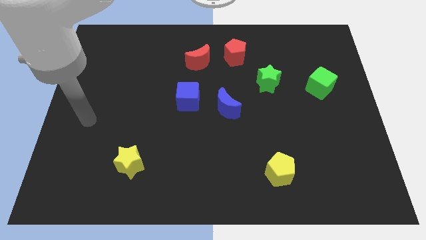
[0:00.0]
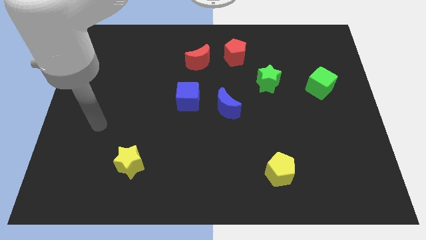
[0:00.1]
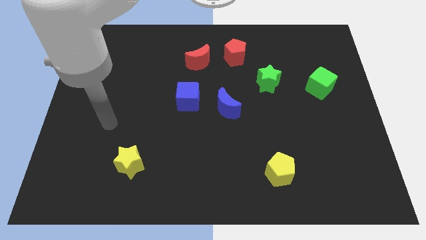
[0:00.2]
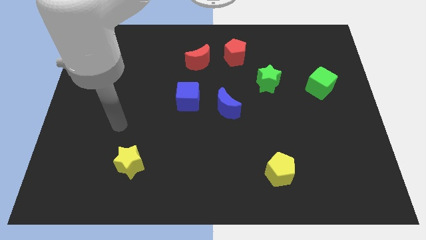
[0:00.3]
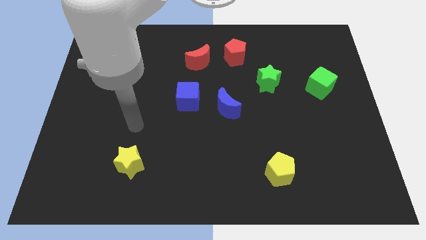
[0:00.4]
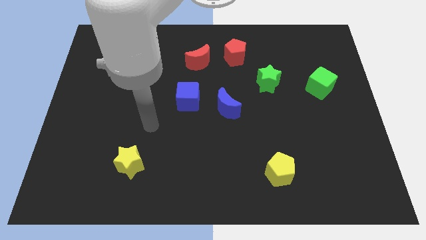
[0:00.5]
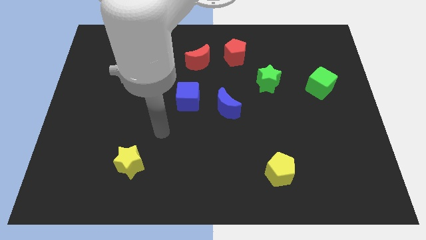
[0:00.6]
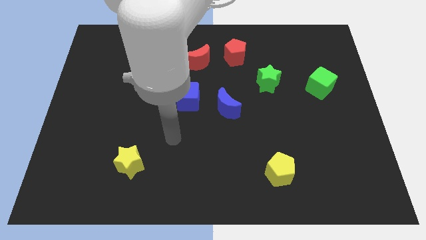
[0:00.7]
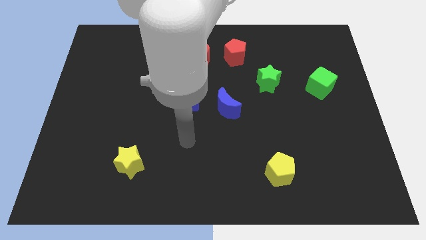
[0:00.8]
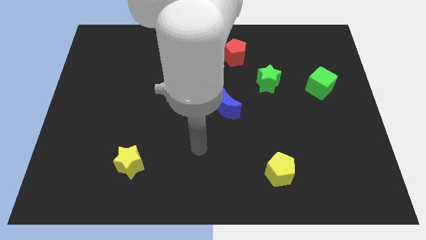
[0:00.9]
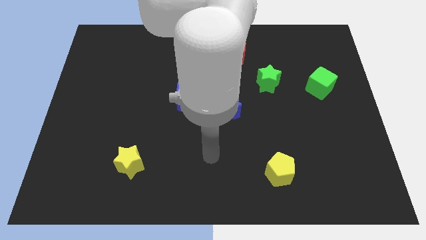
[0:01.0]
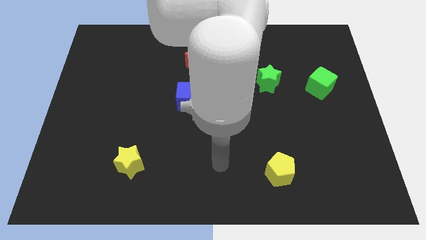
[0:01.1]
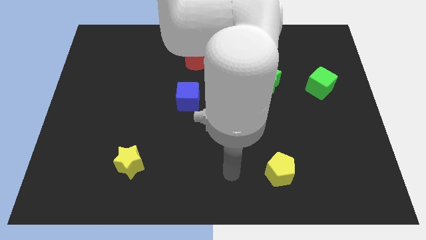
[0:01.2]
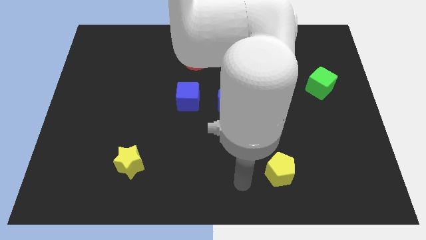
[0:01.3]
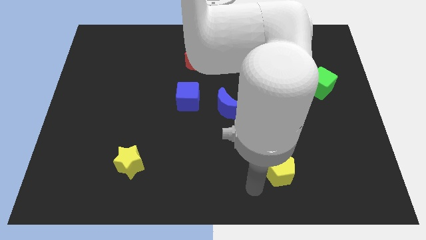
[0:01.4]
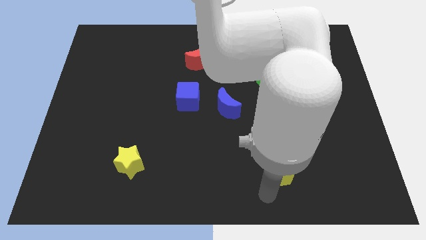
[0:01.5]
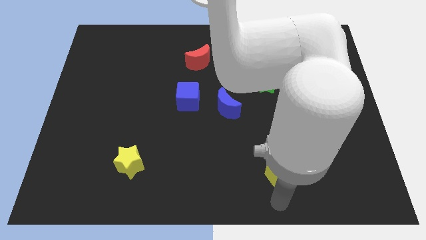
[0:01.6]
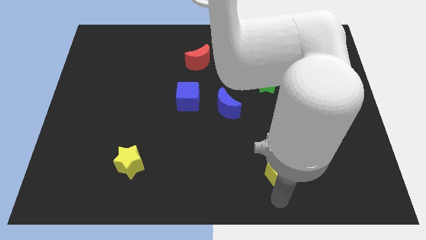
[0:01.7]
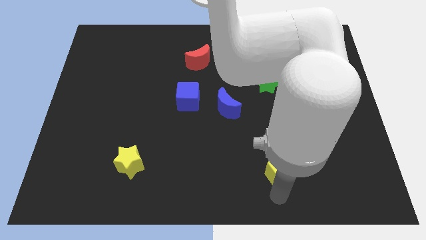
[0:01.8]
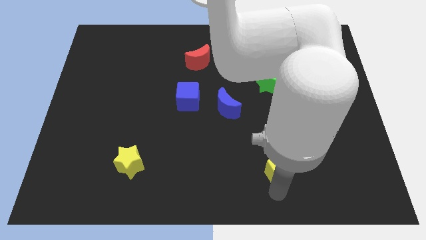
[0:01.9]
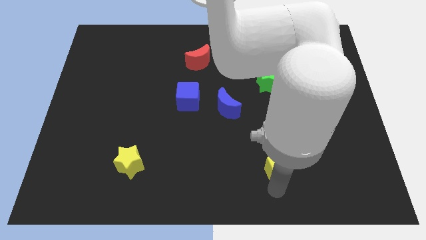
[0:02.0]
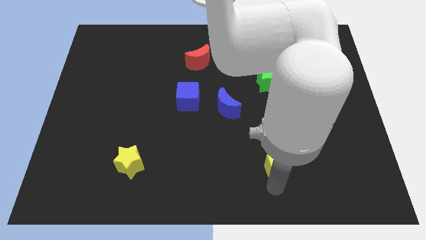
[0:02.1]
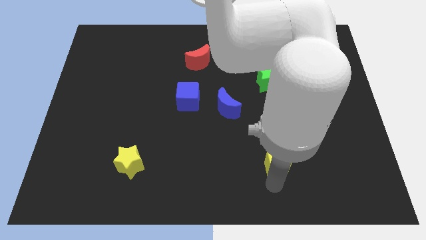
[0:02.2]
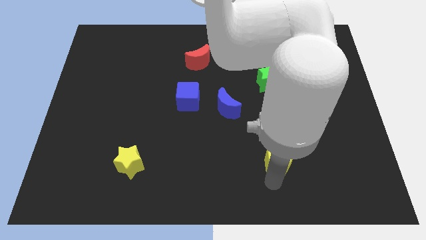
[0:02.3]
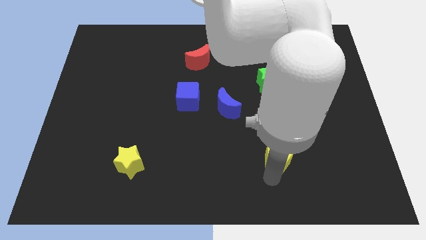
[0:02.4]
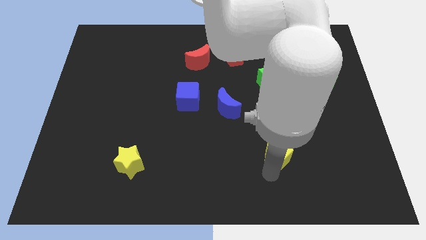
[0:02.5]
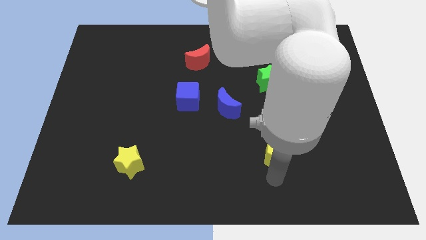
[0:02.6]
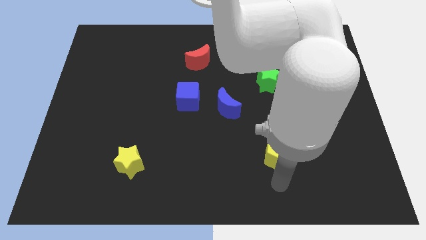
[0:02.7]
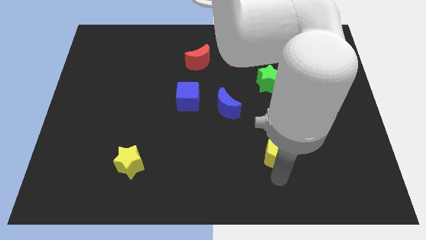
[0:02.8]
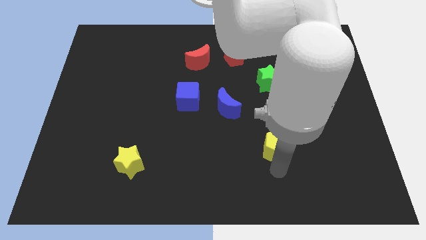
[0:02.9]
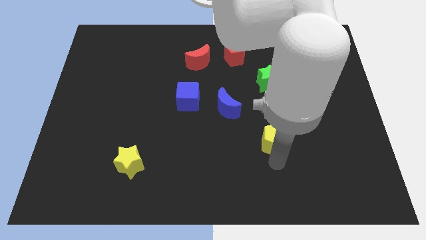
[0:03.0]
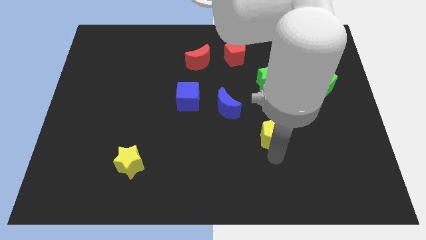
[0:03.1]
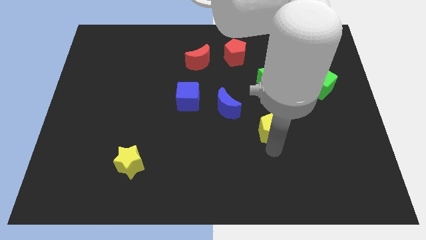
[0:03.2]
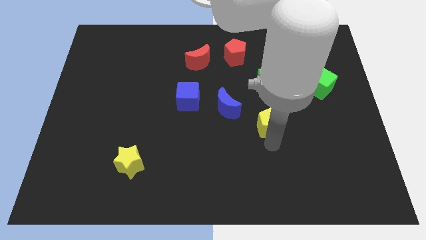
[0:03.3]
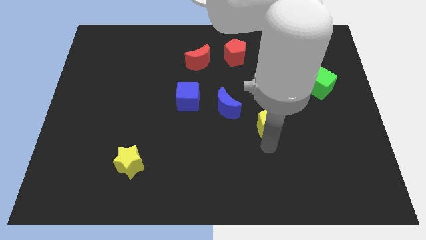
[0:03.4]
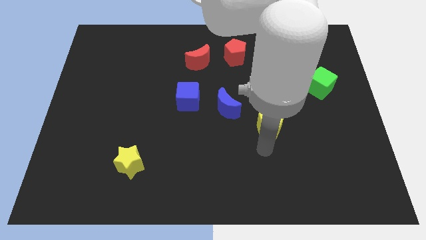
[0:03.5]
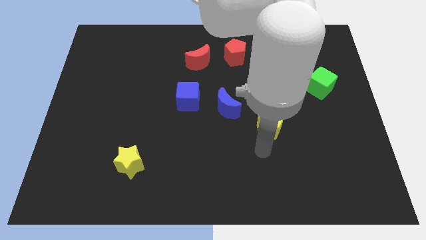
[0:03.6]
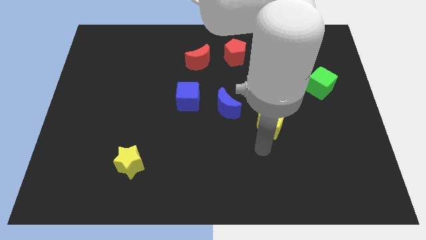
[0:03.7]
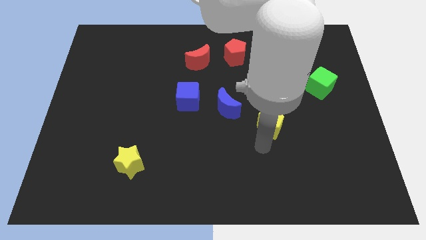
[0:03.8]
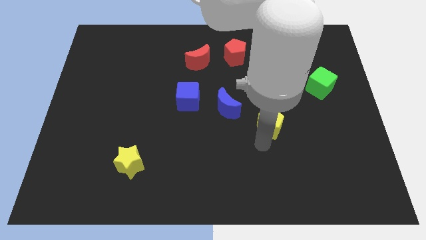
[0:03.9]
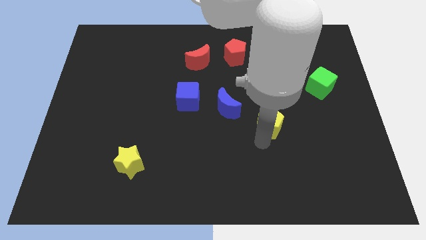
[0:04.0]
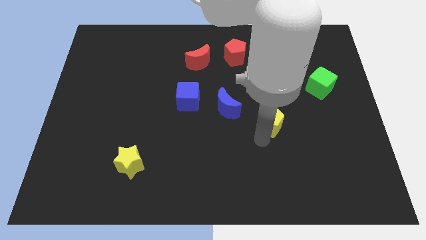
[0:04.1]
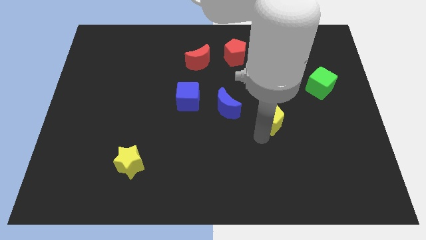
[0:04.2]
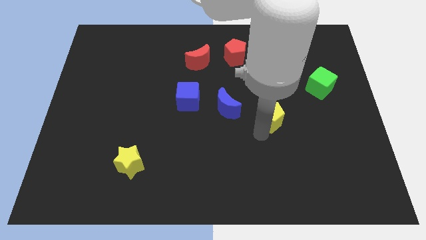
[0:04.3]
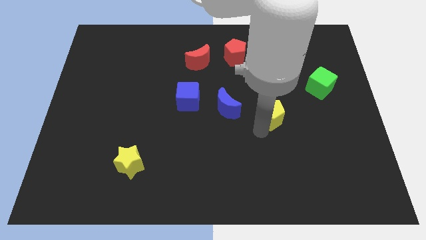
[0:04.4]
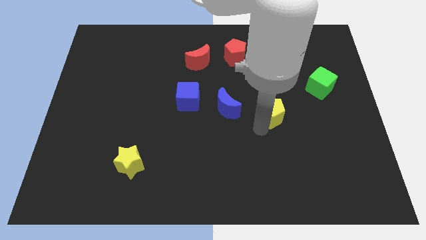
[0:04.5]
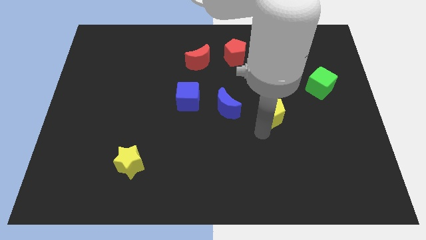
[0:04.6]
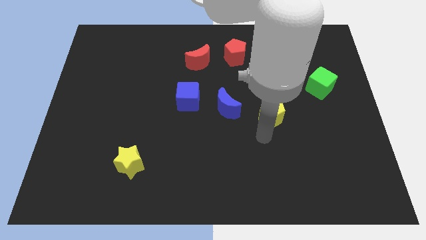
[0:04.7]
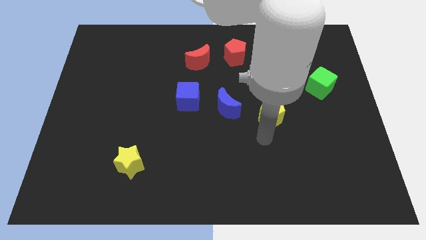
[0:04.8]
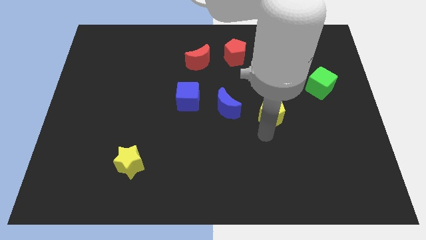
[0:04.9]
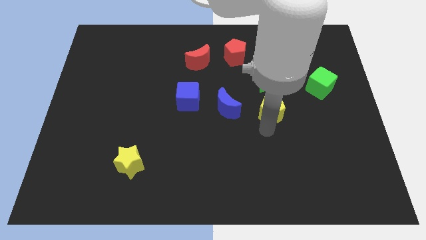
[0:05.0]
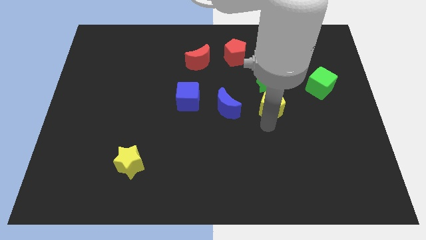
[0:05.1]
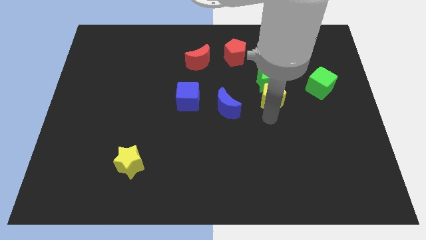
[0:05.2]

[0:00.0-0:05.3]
push the yellow pentagon towards the green star

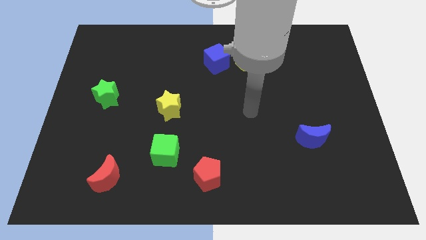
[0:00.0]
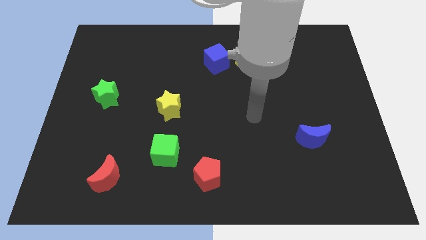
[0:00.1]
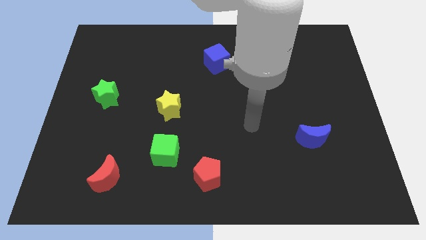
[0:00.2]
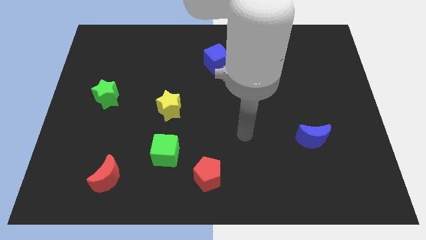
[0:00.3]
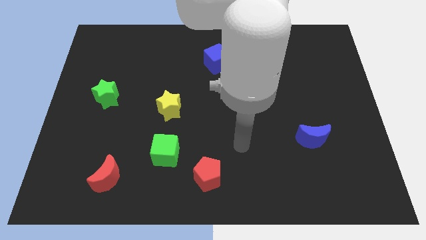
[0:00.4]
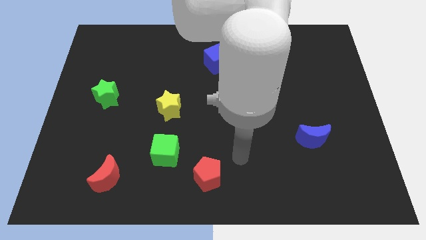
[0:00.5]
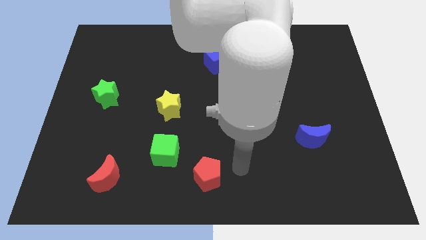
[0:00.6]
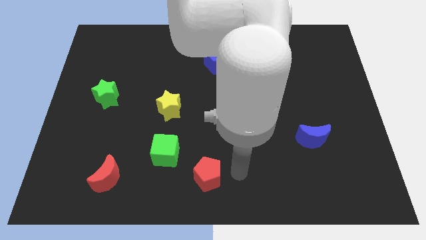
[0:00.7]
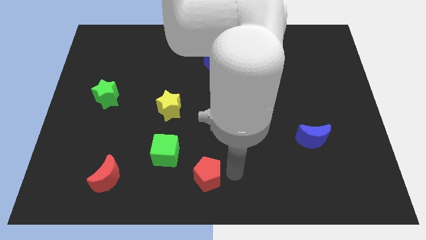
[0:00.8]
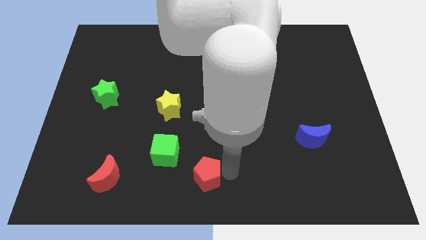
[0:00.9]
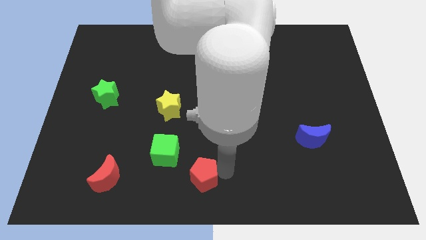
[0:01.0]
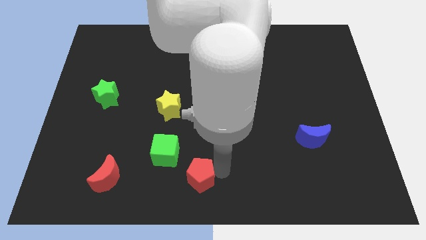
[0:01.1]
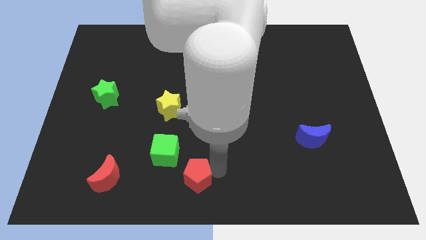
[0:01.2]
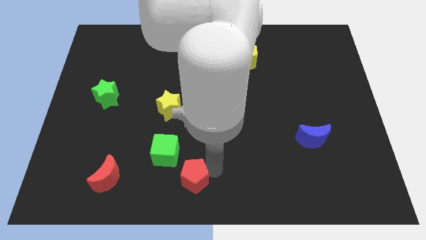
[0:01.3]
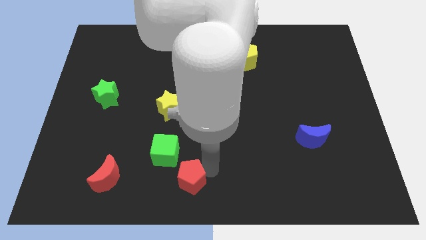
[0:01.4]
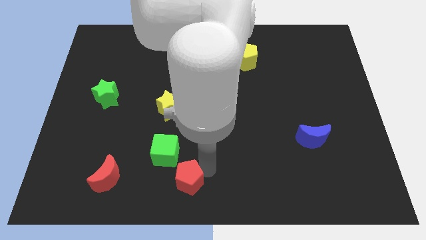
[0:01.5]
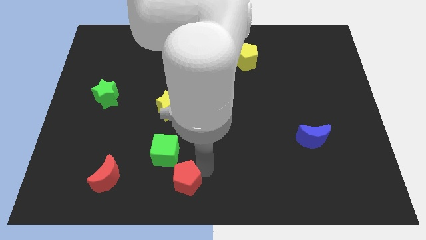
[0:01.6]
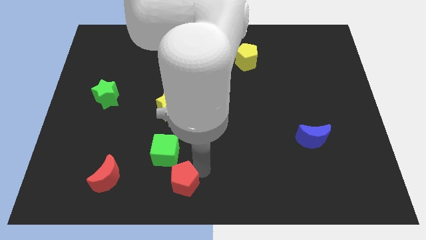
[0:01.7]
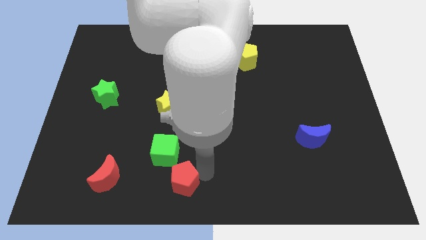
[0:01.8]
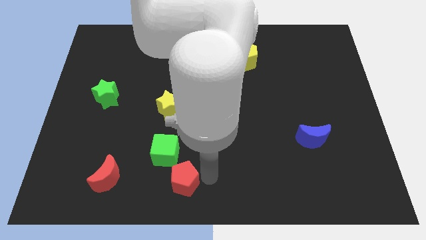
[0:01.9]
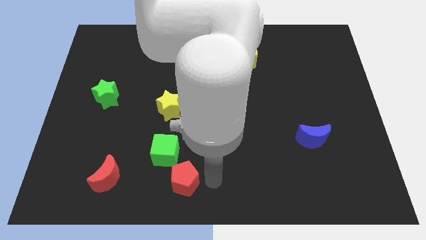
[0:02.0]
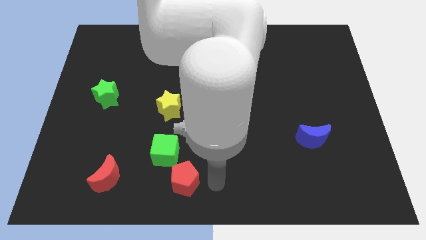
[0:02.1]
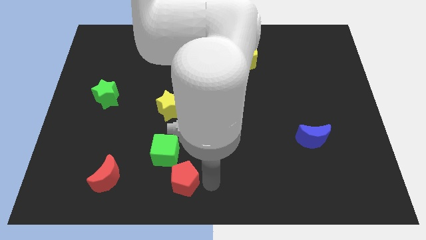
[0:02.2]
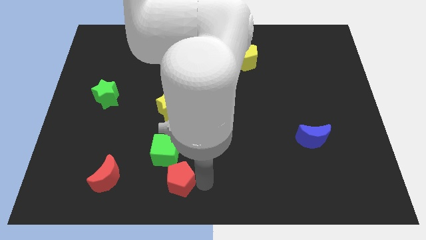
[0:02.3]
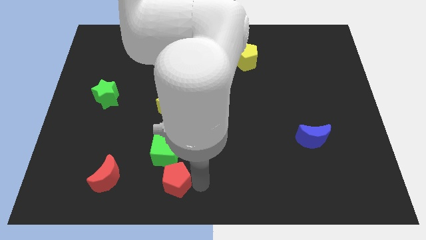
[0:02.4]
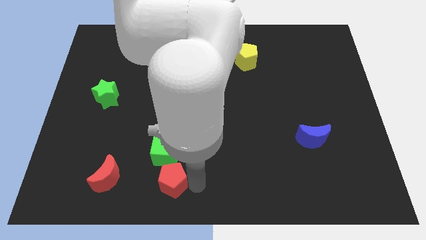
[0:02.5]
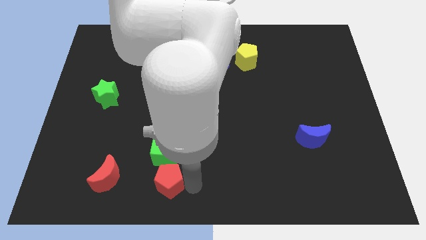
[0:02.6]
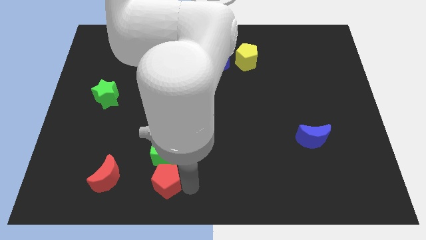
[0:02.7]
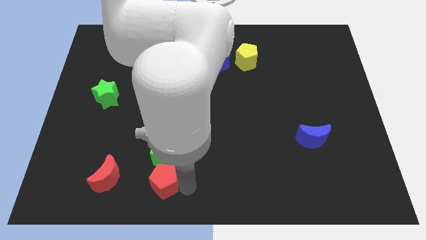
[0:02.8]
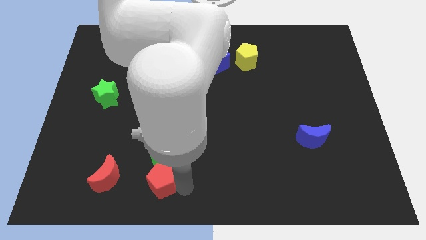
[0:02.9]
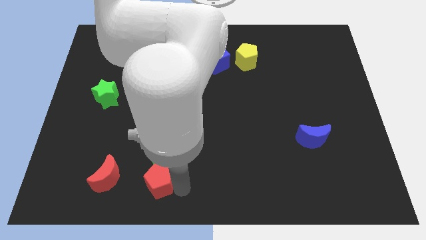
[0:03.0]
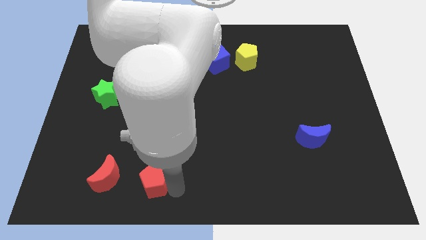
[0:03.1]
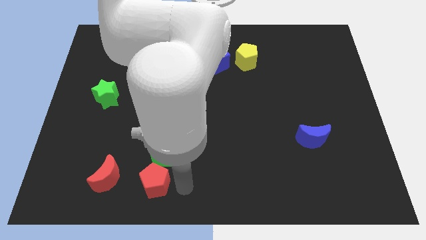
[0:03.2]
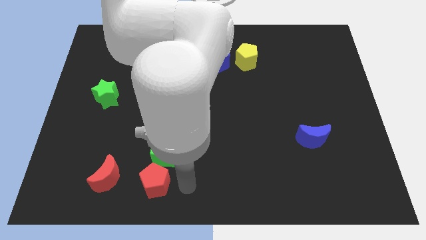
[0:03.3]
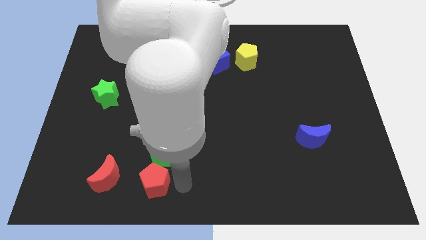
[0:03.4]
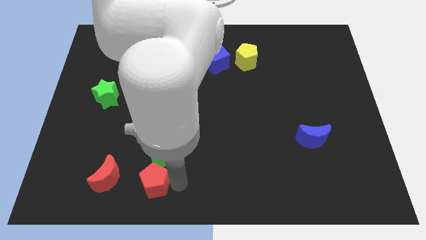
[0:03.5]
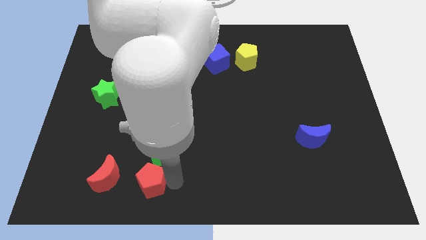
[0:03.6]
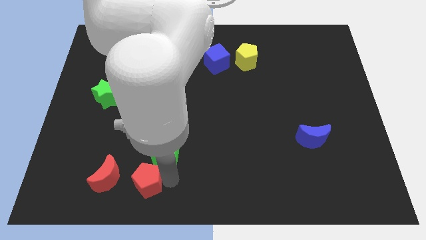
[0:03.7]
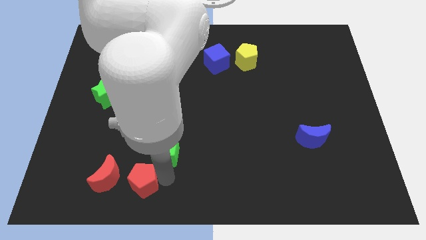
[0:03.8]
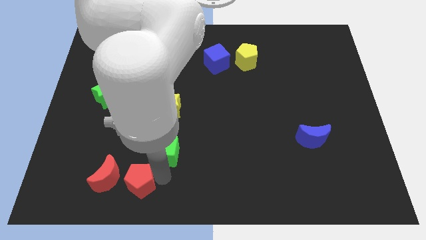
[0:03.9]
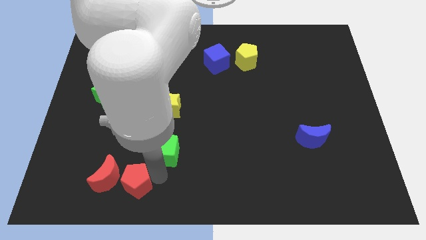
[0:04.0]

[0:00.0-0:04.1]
push the red pentagon towards the red moon
